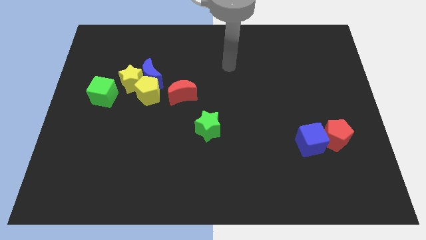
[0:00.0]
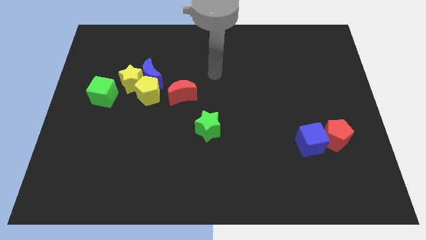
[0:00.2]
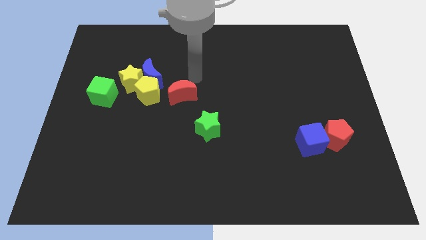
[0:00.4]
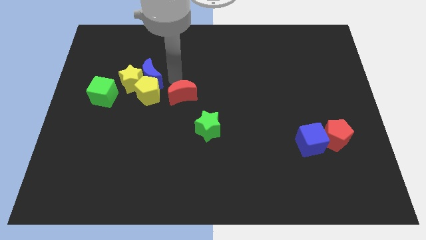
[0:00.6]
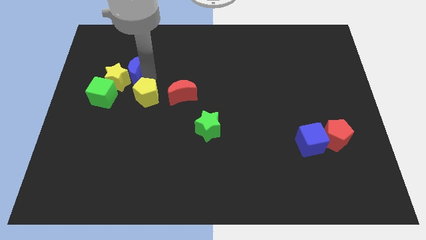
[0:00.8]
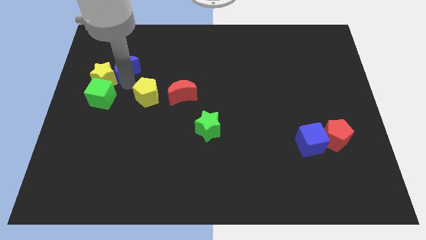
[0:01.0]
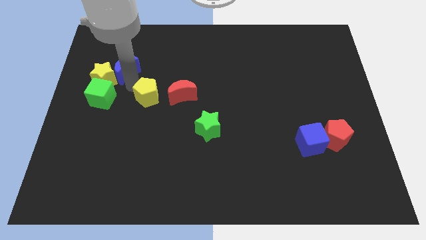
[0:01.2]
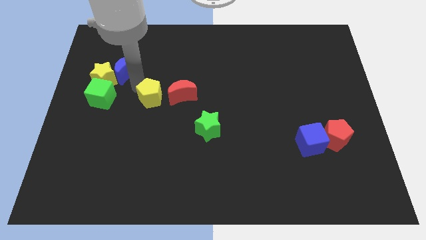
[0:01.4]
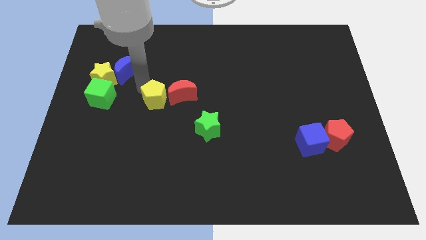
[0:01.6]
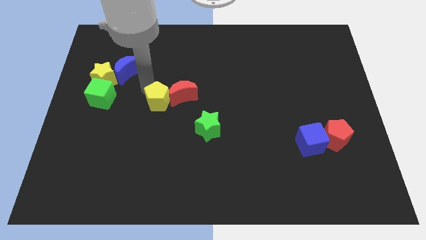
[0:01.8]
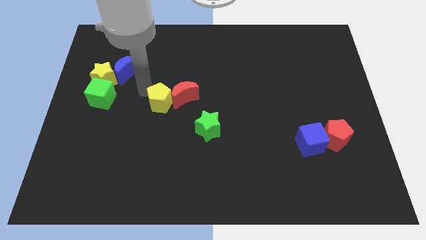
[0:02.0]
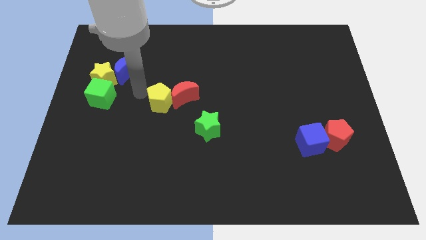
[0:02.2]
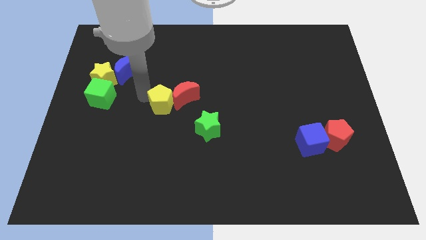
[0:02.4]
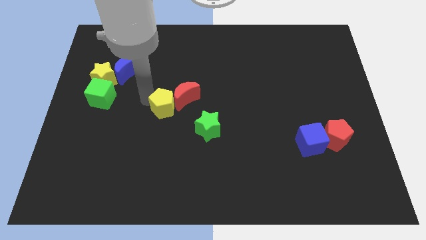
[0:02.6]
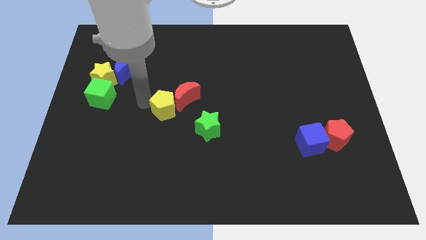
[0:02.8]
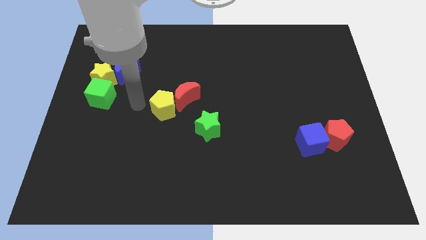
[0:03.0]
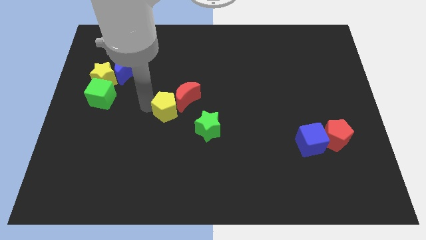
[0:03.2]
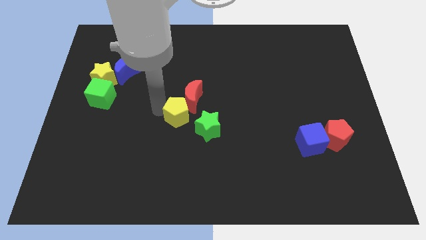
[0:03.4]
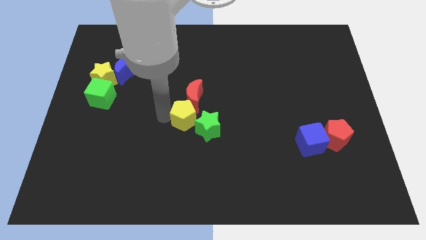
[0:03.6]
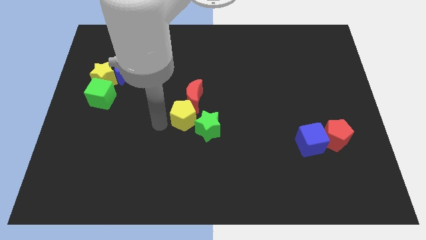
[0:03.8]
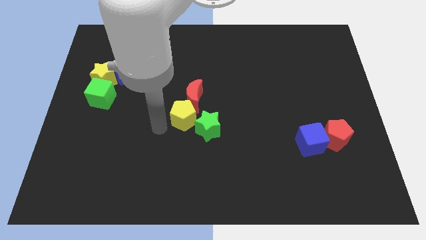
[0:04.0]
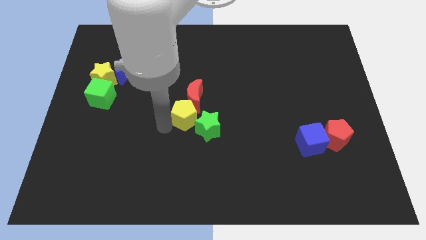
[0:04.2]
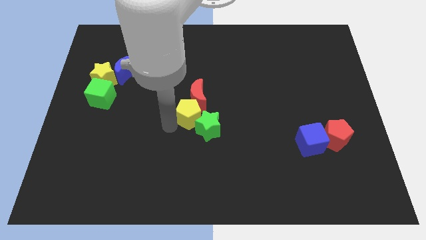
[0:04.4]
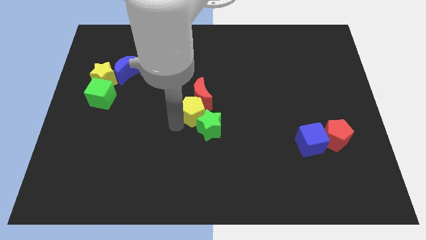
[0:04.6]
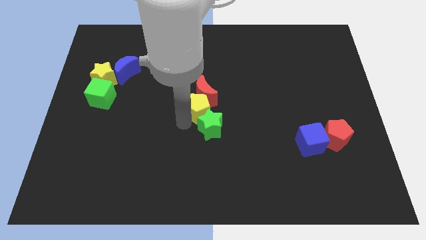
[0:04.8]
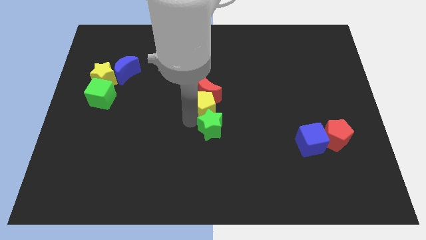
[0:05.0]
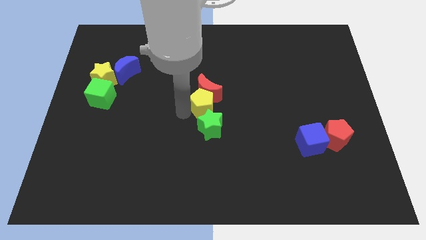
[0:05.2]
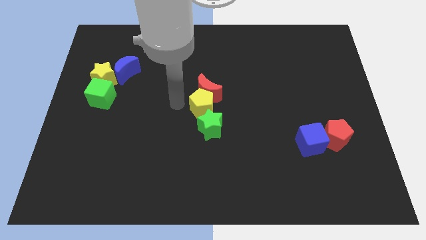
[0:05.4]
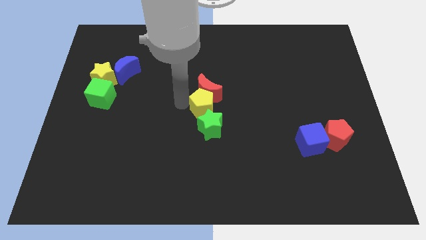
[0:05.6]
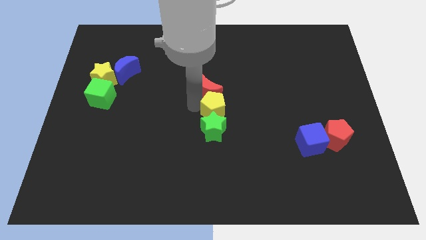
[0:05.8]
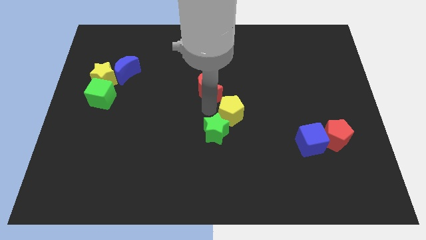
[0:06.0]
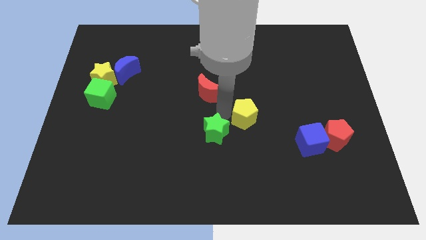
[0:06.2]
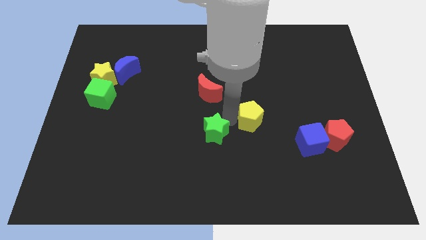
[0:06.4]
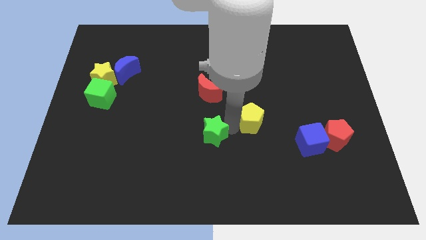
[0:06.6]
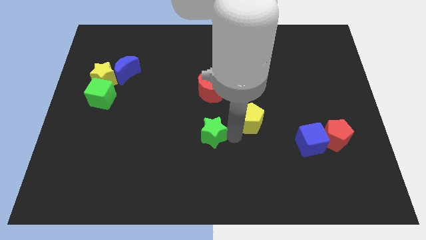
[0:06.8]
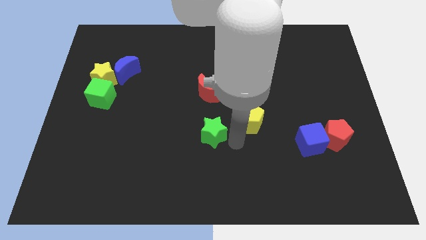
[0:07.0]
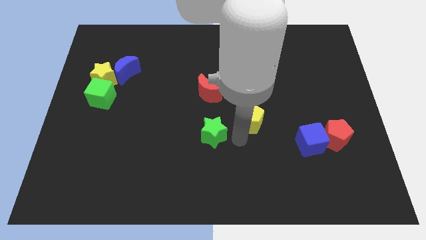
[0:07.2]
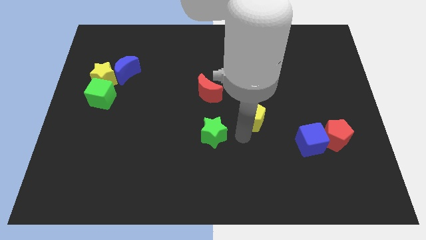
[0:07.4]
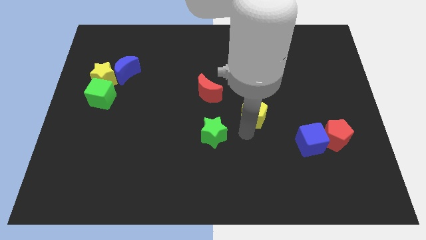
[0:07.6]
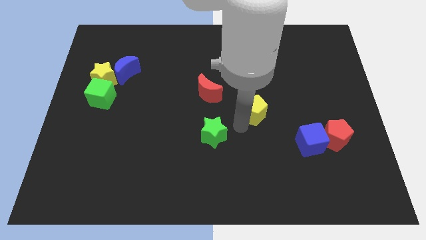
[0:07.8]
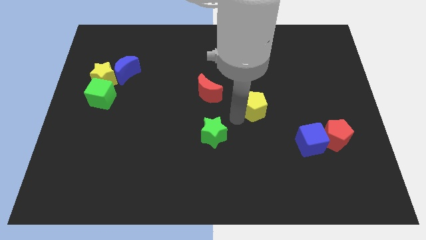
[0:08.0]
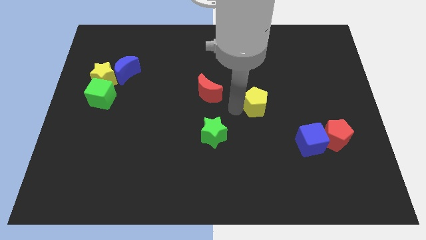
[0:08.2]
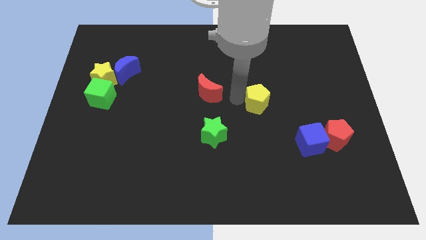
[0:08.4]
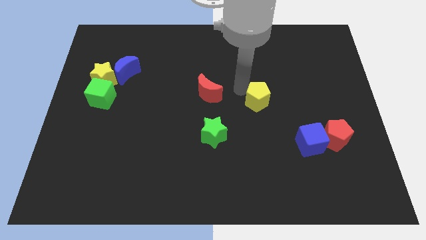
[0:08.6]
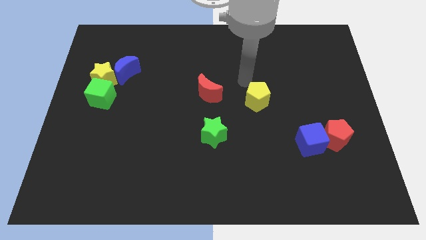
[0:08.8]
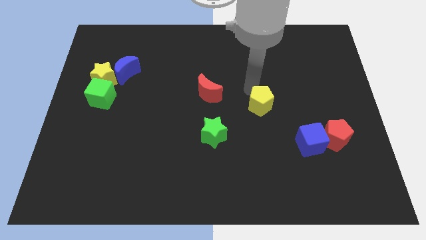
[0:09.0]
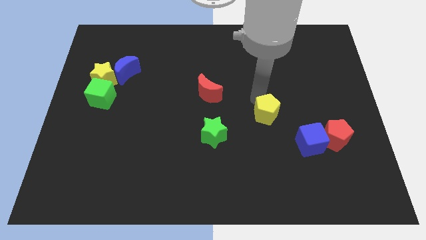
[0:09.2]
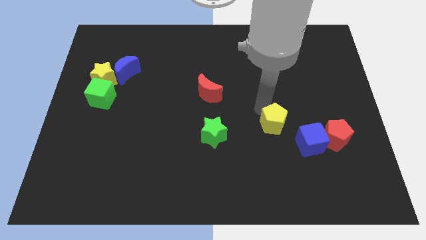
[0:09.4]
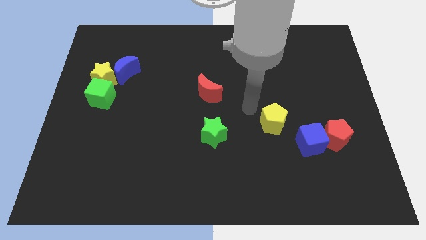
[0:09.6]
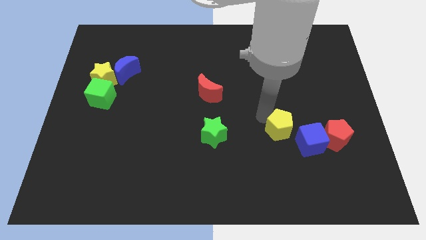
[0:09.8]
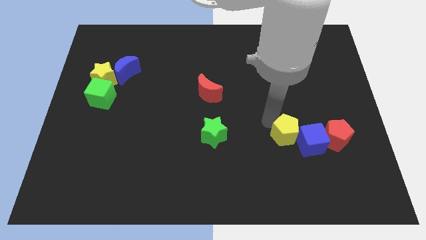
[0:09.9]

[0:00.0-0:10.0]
put the yellow pentagon towards the blue cube

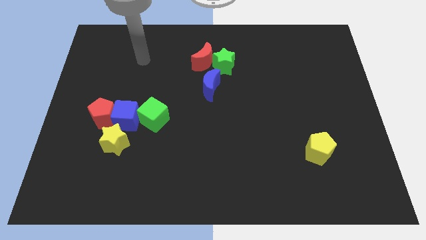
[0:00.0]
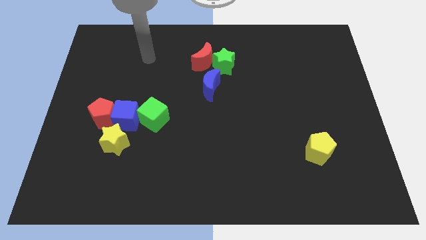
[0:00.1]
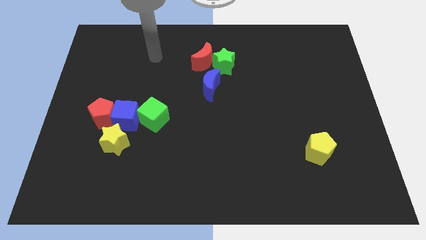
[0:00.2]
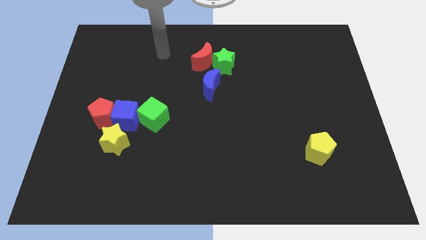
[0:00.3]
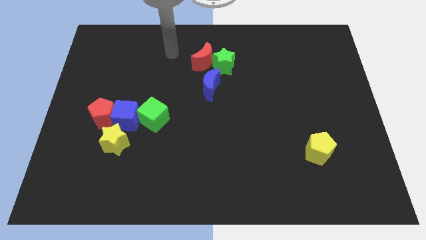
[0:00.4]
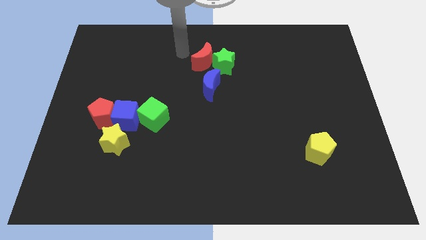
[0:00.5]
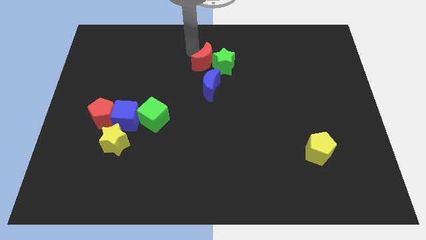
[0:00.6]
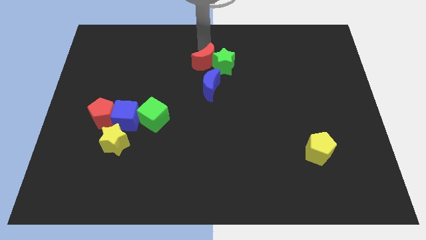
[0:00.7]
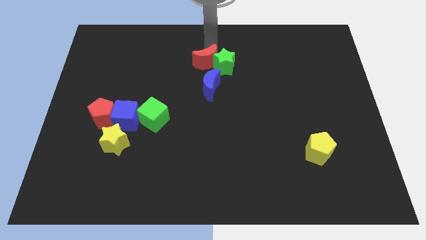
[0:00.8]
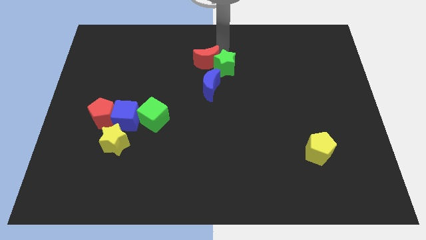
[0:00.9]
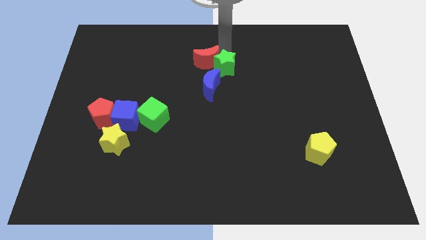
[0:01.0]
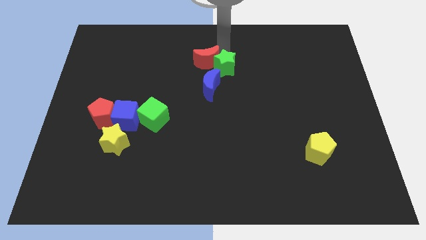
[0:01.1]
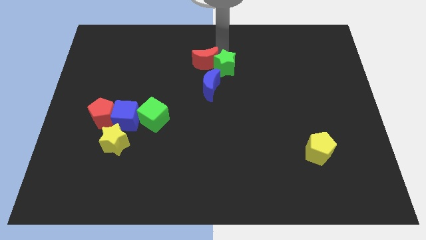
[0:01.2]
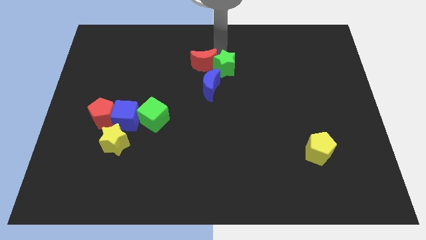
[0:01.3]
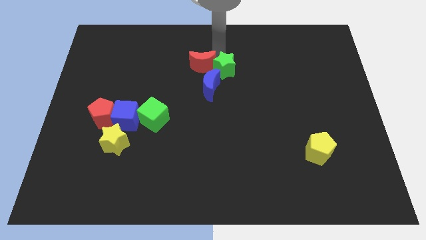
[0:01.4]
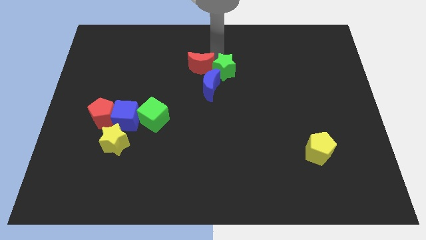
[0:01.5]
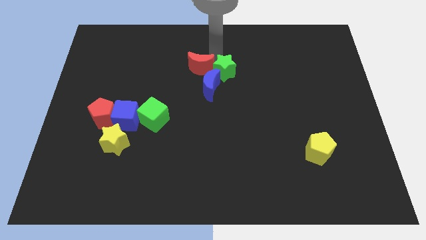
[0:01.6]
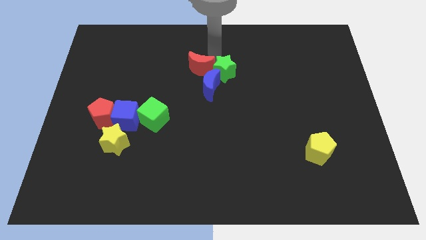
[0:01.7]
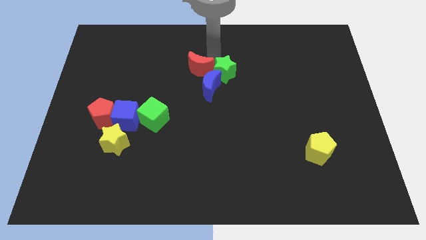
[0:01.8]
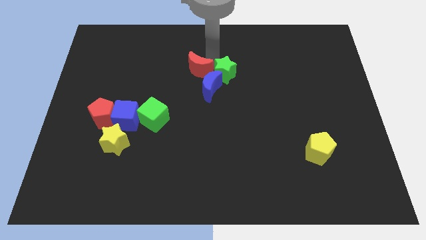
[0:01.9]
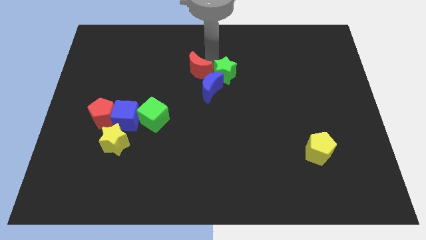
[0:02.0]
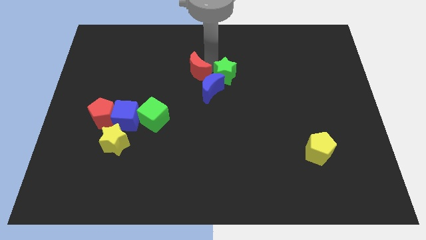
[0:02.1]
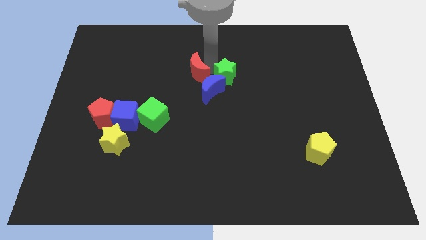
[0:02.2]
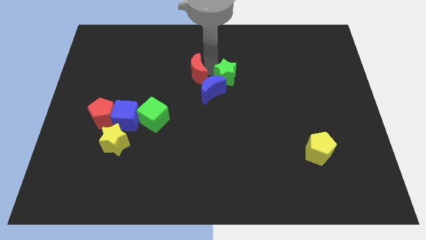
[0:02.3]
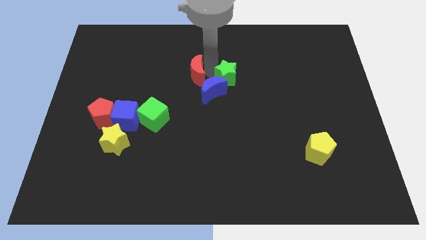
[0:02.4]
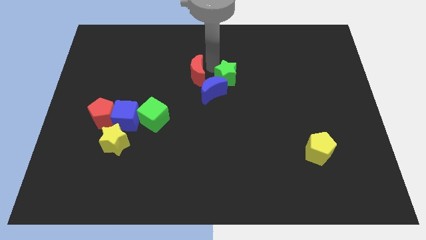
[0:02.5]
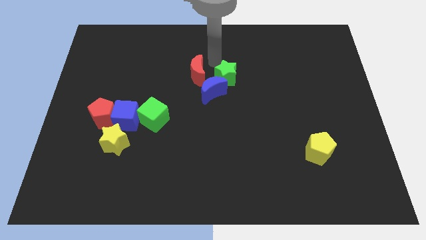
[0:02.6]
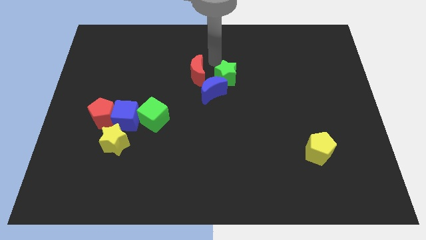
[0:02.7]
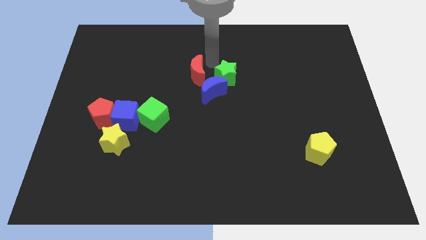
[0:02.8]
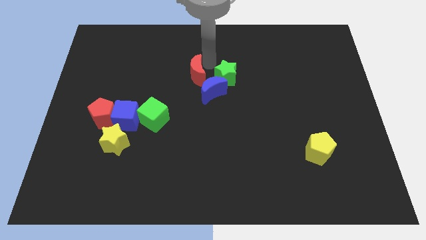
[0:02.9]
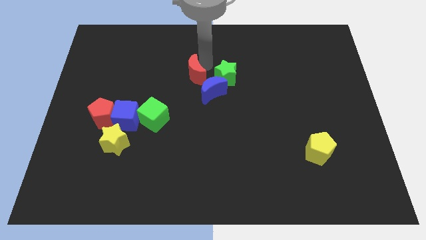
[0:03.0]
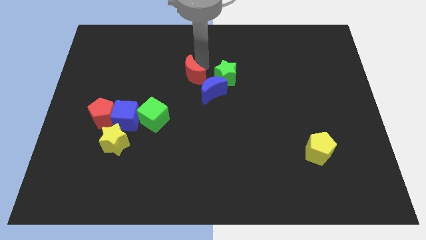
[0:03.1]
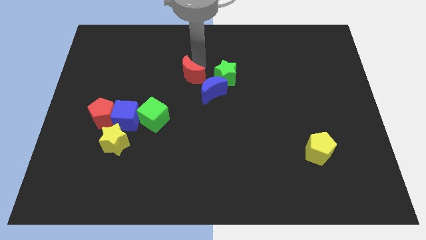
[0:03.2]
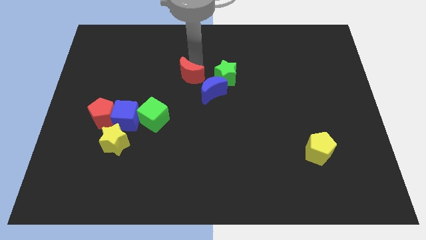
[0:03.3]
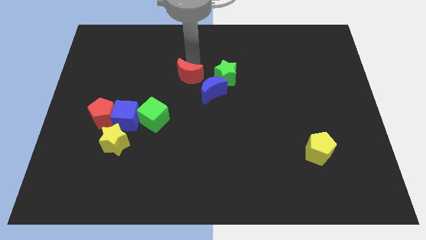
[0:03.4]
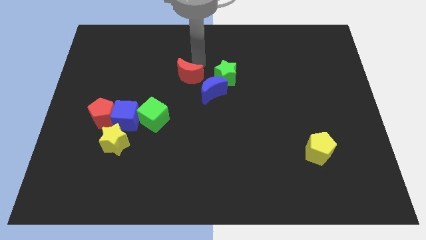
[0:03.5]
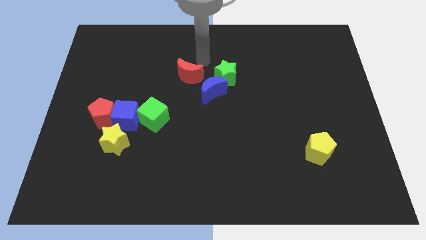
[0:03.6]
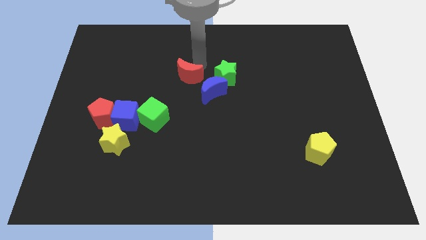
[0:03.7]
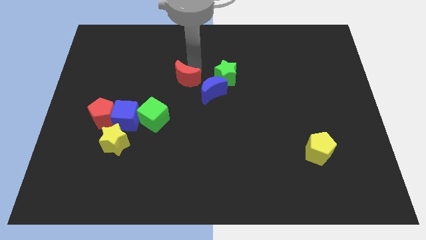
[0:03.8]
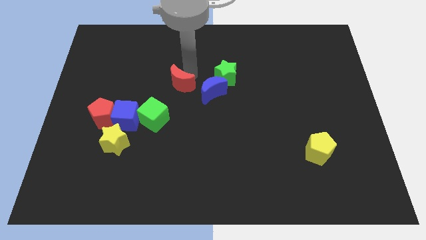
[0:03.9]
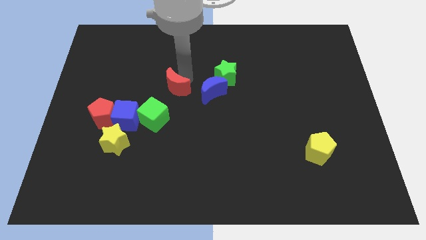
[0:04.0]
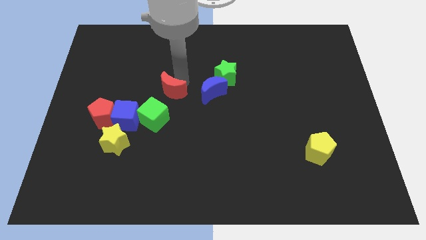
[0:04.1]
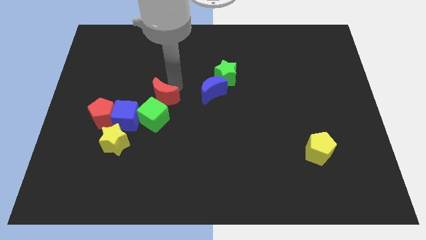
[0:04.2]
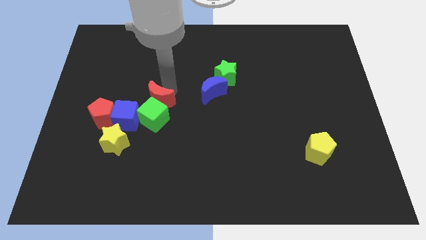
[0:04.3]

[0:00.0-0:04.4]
put the red moon to the green cube
